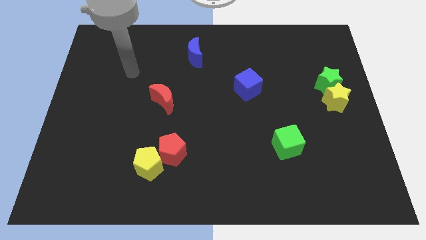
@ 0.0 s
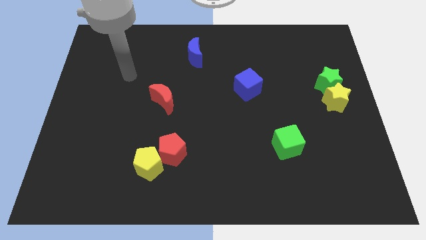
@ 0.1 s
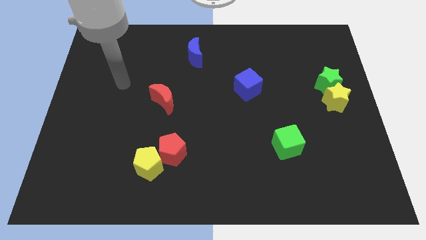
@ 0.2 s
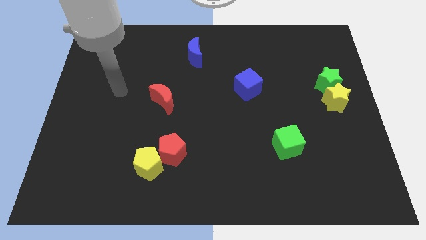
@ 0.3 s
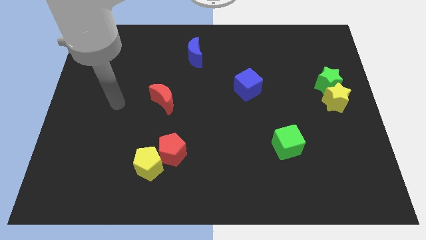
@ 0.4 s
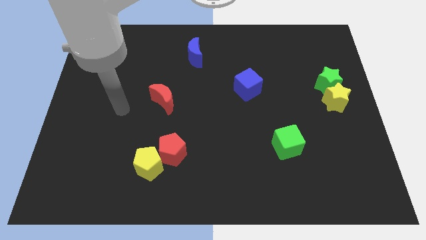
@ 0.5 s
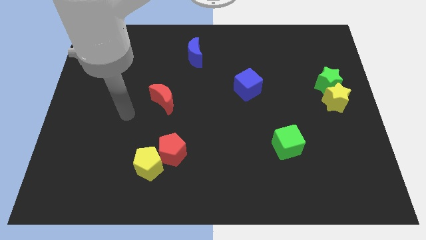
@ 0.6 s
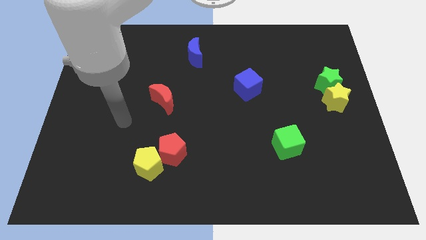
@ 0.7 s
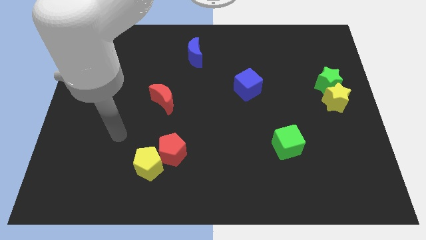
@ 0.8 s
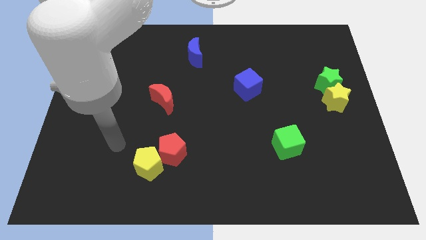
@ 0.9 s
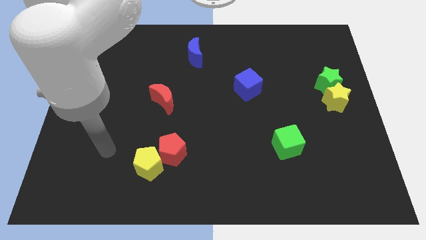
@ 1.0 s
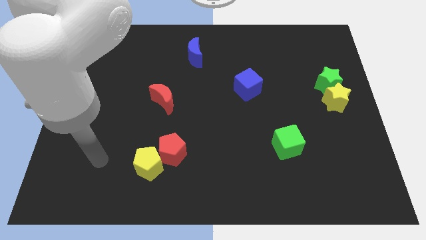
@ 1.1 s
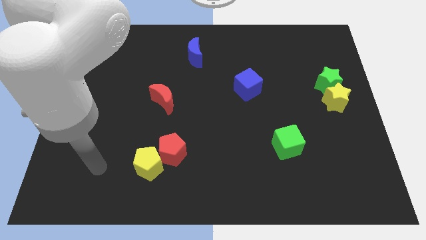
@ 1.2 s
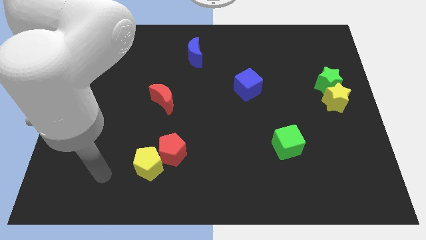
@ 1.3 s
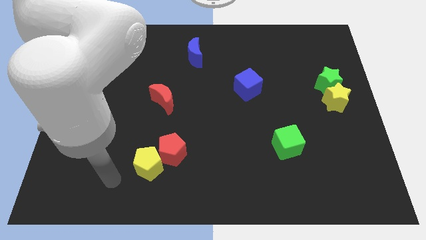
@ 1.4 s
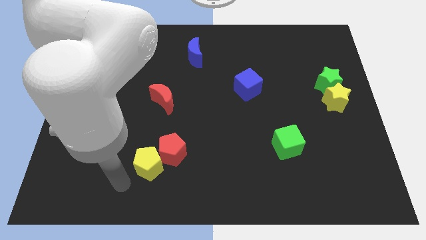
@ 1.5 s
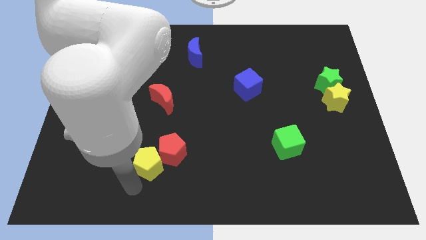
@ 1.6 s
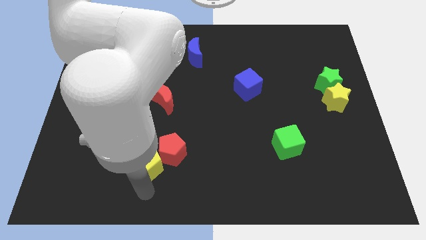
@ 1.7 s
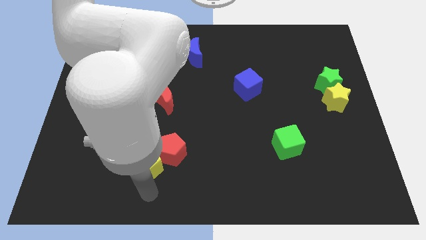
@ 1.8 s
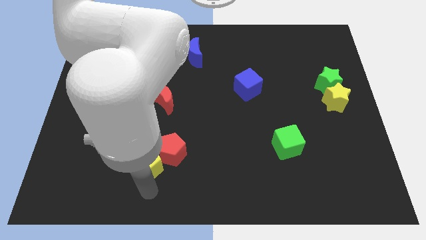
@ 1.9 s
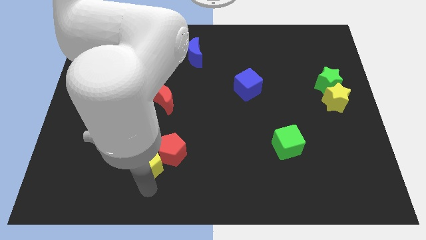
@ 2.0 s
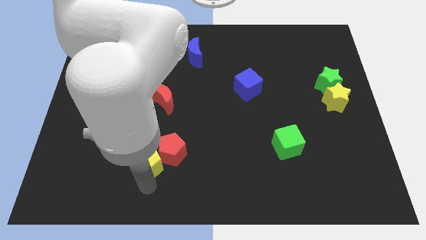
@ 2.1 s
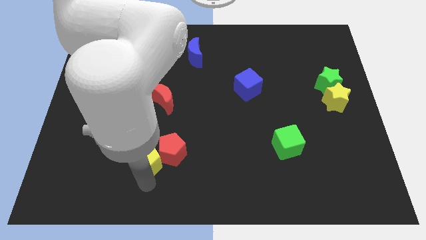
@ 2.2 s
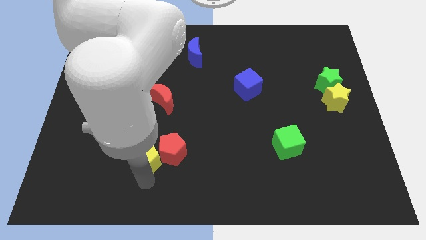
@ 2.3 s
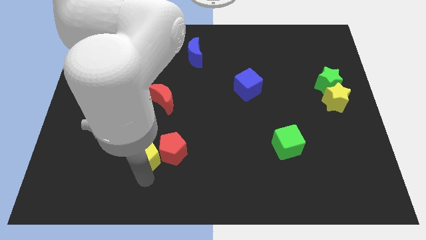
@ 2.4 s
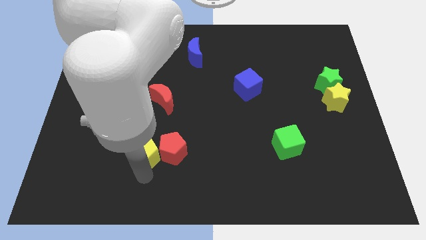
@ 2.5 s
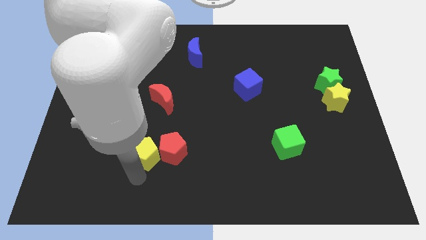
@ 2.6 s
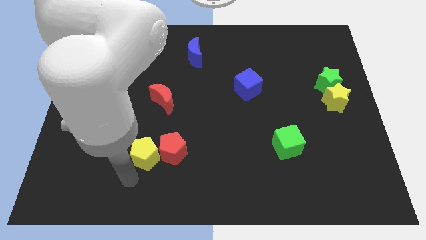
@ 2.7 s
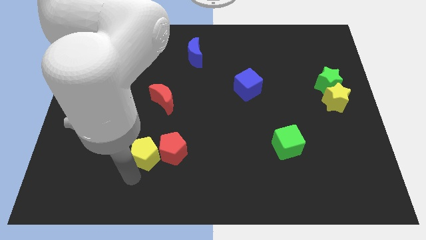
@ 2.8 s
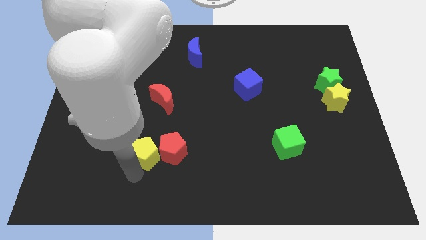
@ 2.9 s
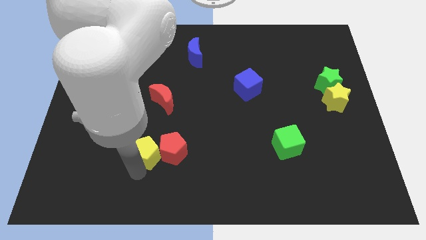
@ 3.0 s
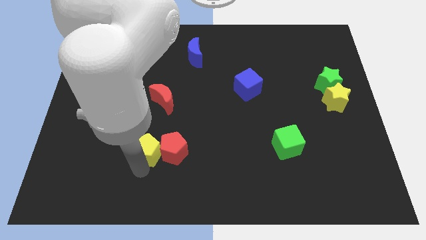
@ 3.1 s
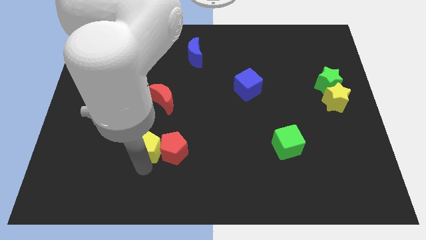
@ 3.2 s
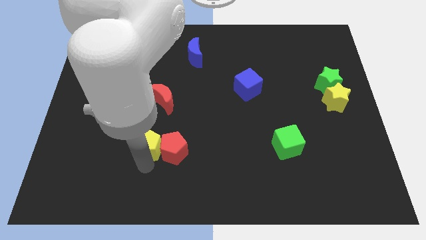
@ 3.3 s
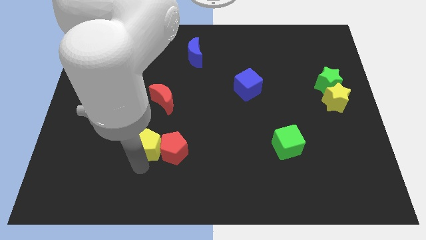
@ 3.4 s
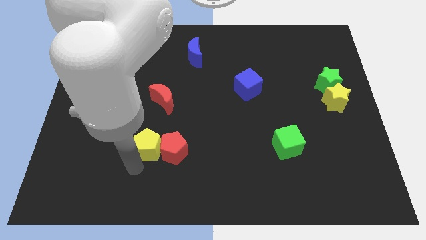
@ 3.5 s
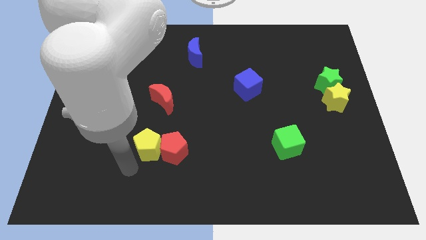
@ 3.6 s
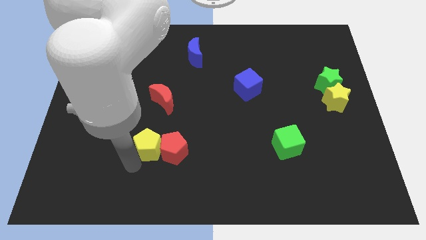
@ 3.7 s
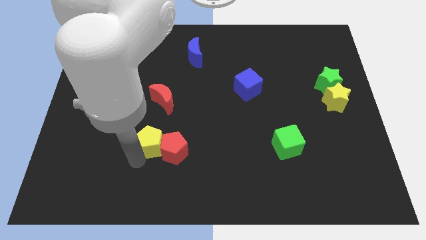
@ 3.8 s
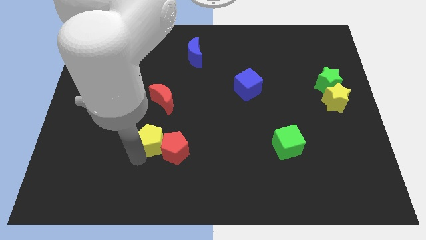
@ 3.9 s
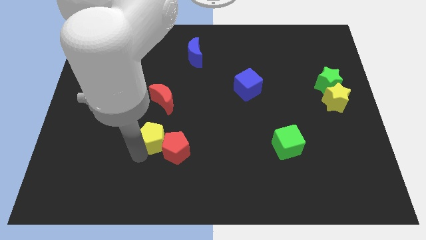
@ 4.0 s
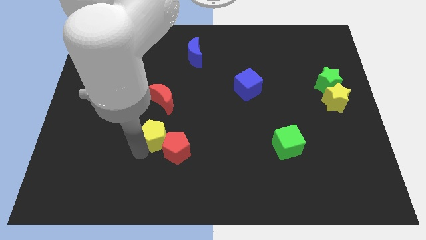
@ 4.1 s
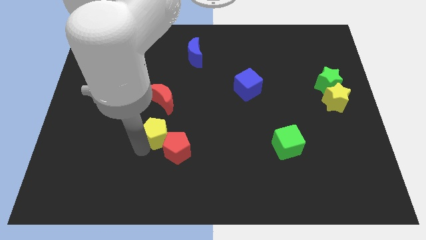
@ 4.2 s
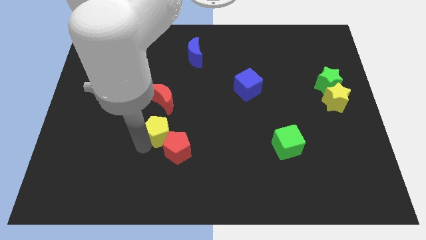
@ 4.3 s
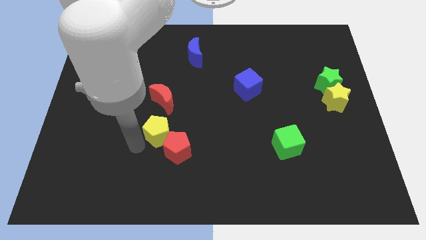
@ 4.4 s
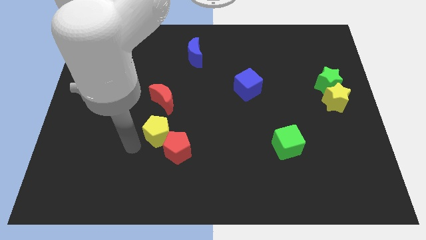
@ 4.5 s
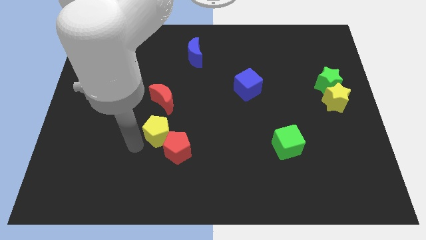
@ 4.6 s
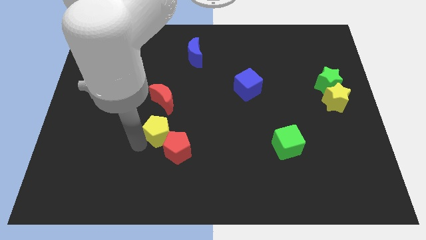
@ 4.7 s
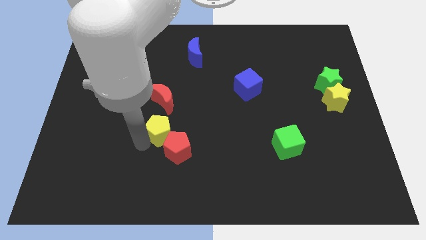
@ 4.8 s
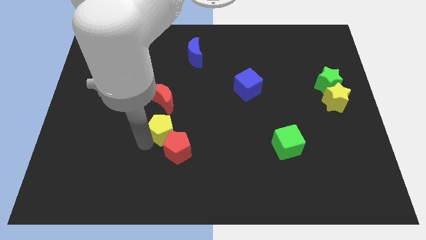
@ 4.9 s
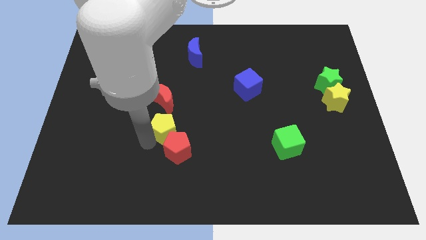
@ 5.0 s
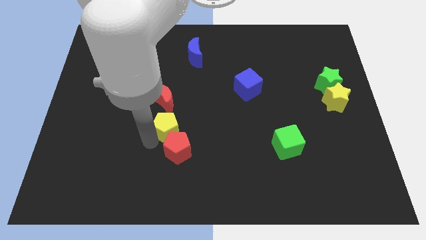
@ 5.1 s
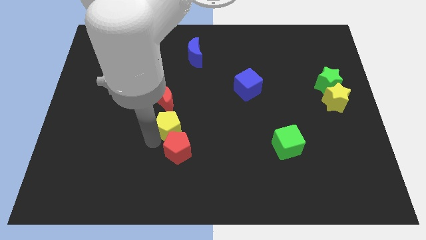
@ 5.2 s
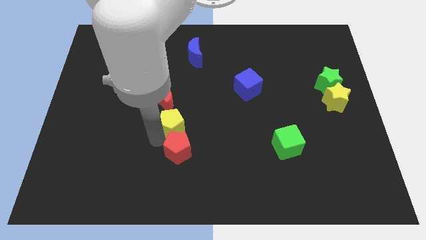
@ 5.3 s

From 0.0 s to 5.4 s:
move the yellow pentagon to the center
